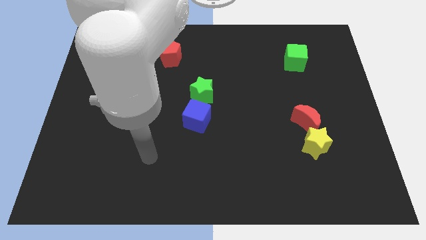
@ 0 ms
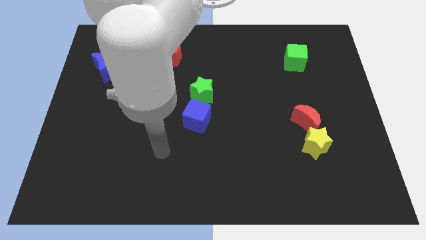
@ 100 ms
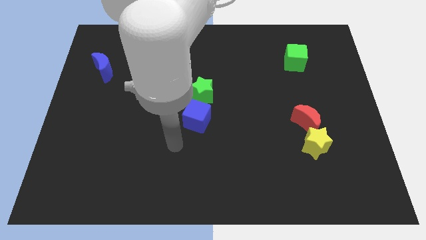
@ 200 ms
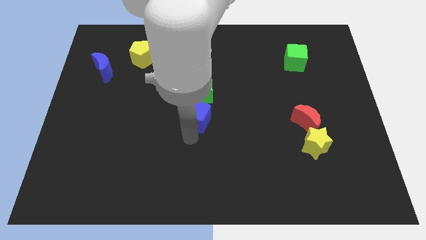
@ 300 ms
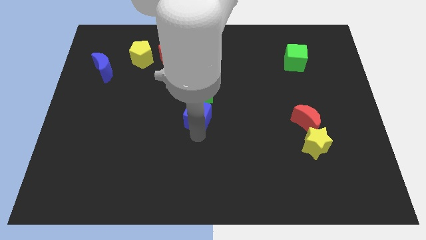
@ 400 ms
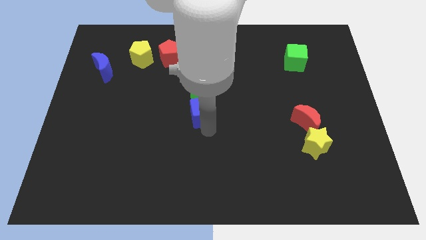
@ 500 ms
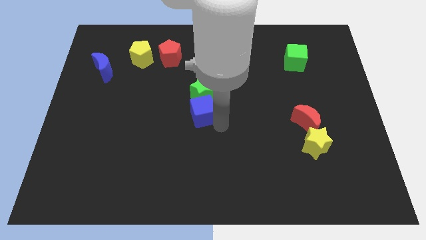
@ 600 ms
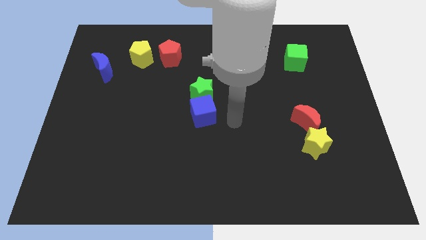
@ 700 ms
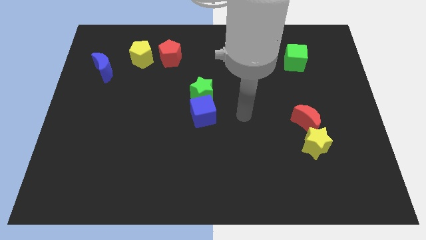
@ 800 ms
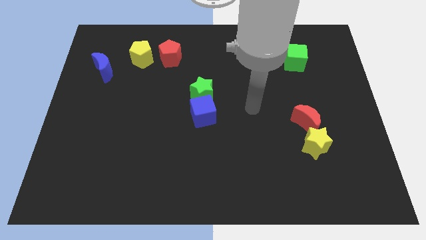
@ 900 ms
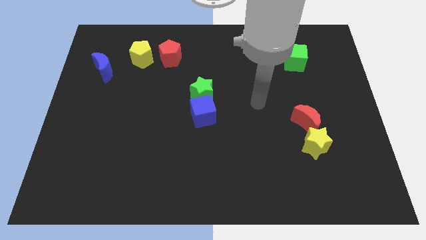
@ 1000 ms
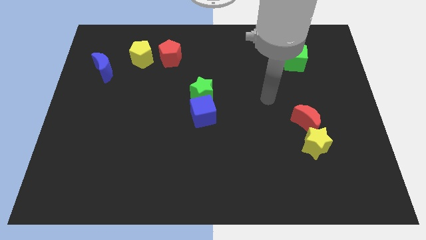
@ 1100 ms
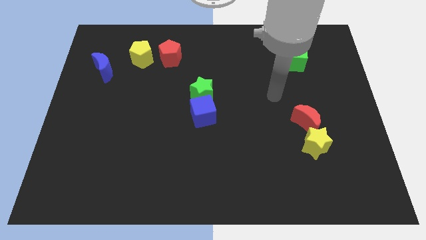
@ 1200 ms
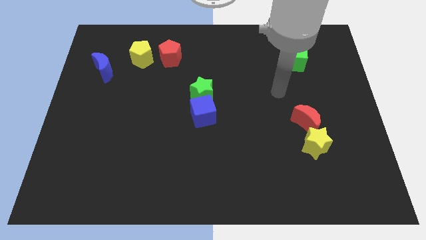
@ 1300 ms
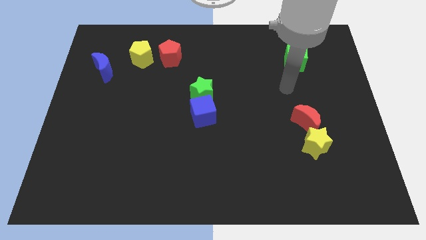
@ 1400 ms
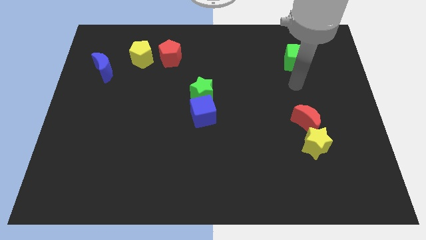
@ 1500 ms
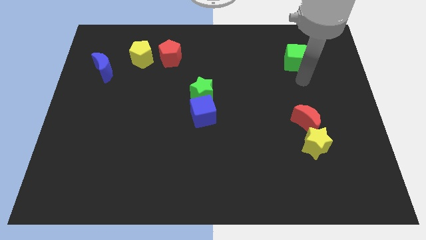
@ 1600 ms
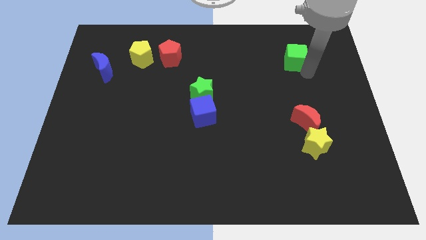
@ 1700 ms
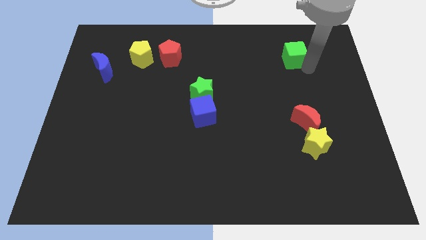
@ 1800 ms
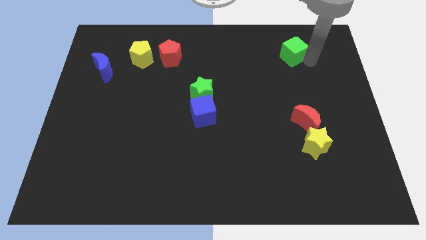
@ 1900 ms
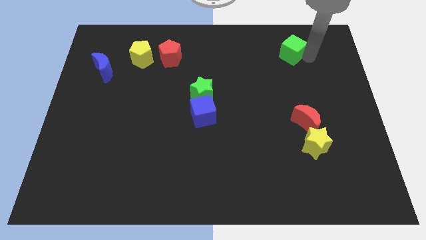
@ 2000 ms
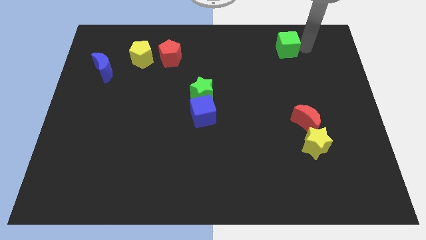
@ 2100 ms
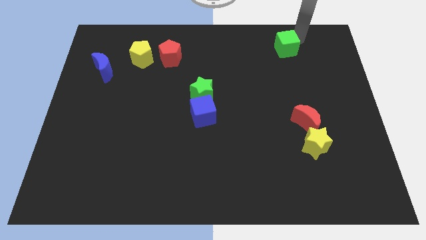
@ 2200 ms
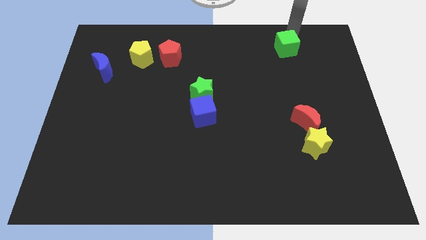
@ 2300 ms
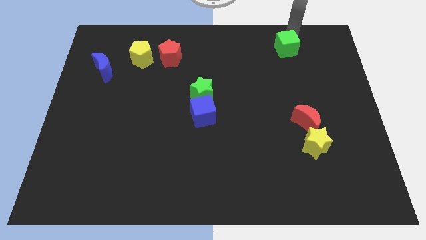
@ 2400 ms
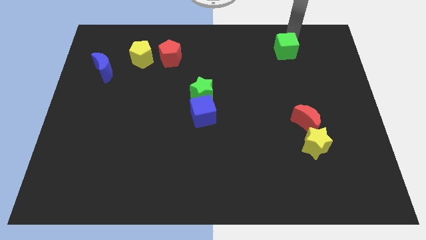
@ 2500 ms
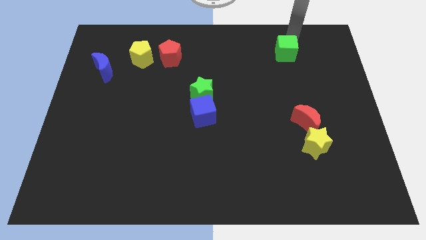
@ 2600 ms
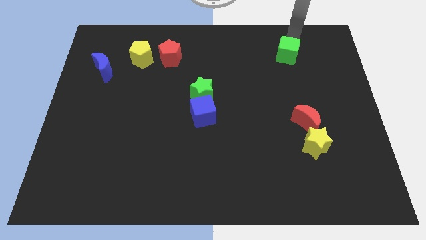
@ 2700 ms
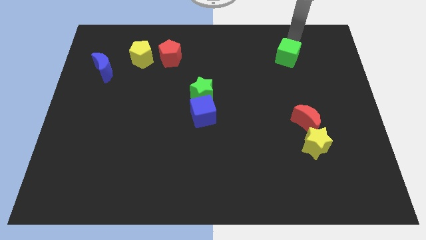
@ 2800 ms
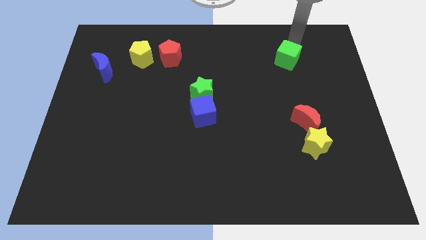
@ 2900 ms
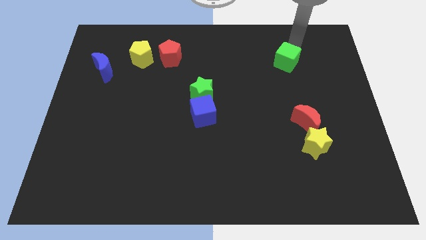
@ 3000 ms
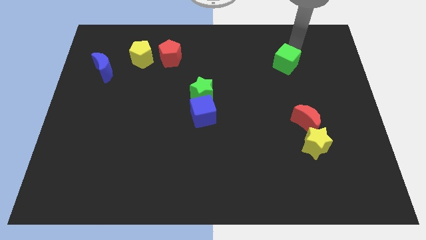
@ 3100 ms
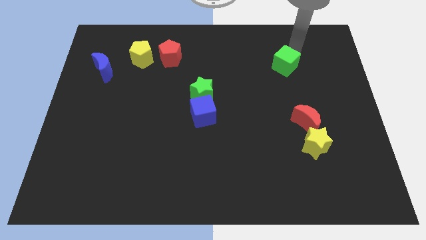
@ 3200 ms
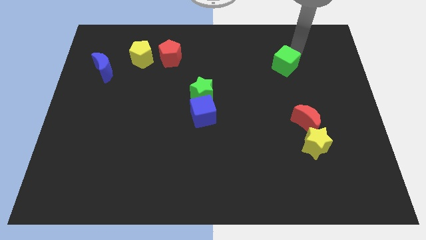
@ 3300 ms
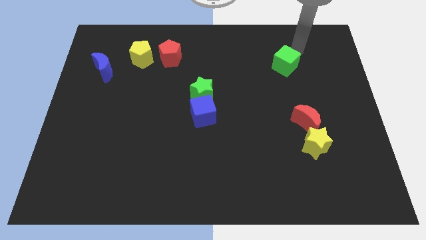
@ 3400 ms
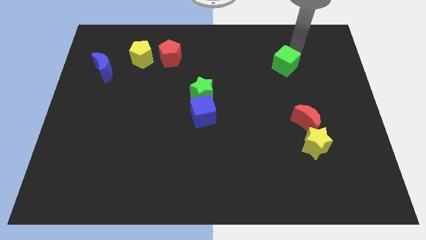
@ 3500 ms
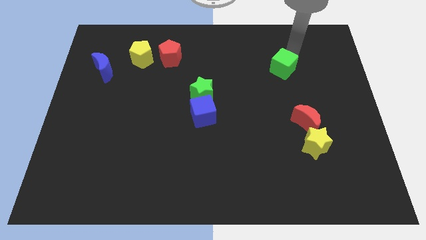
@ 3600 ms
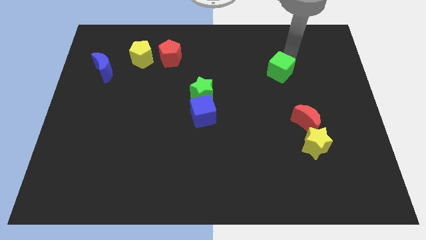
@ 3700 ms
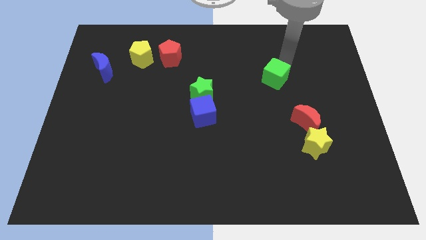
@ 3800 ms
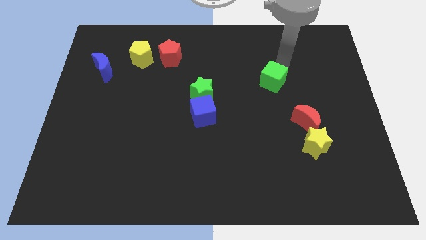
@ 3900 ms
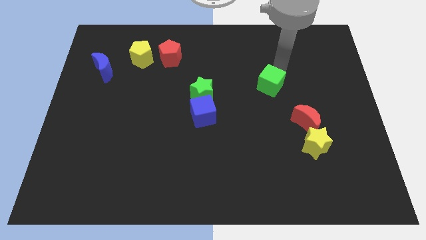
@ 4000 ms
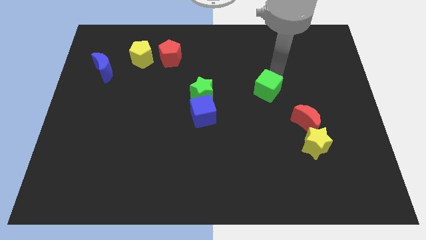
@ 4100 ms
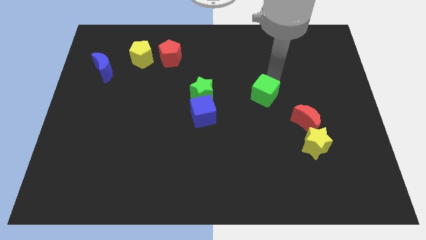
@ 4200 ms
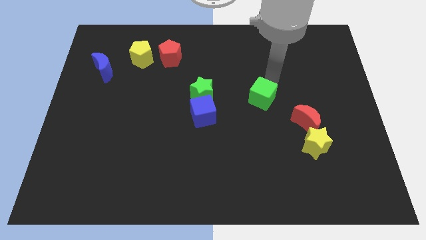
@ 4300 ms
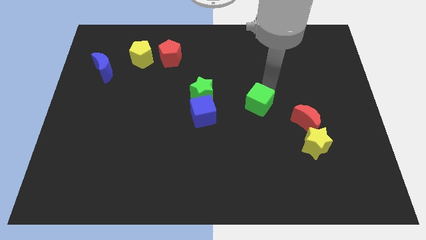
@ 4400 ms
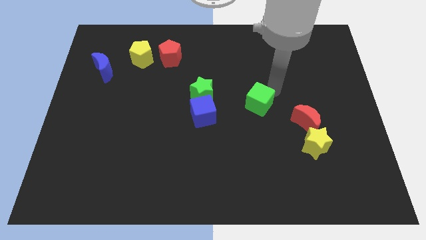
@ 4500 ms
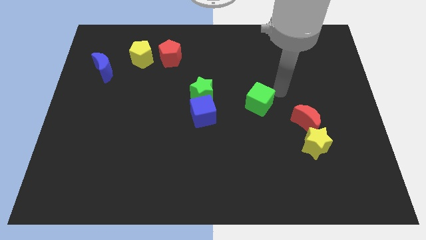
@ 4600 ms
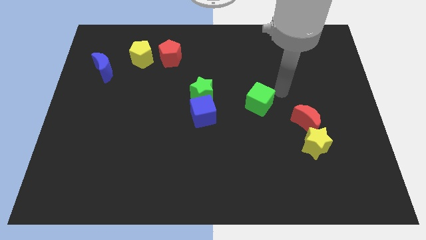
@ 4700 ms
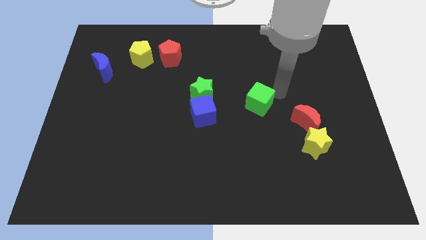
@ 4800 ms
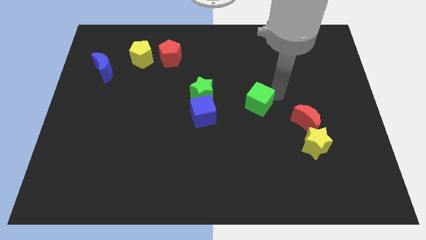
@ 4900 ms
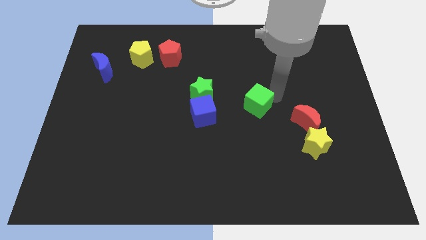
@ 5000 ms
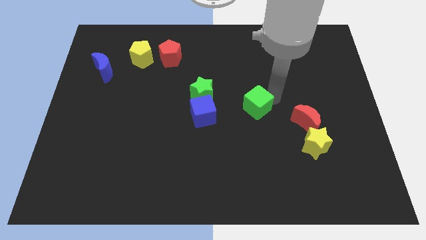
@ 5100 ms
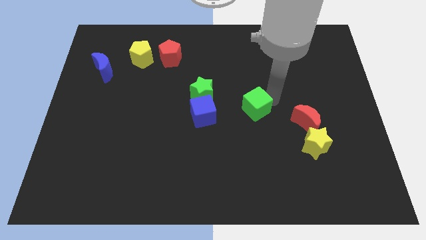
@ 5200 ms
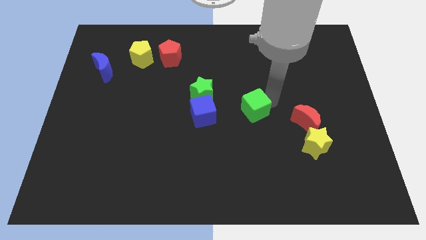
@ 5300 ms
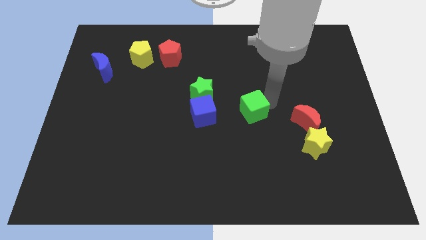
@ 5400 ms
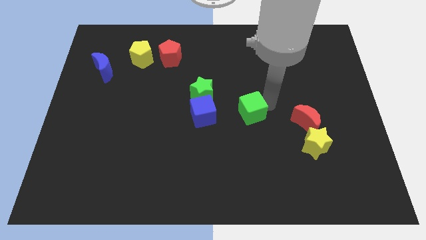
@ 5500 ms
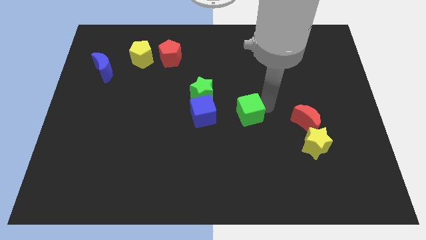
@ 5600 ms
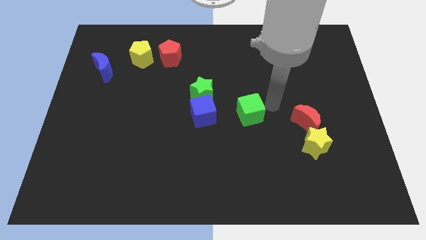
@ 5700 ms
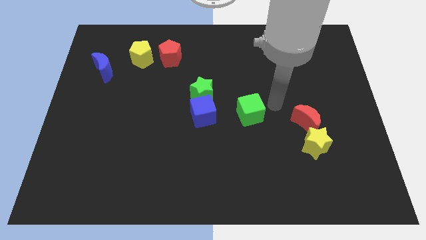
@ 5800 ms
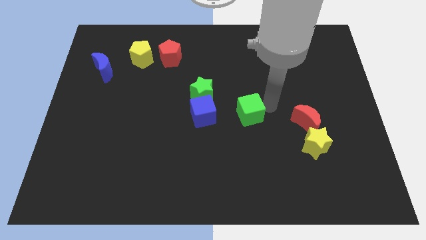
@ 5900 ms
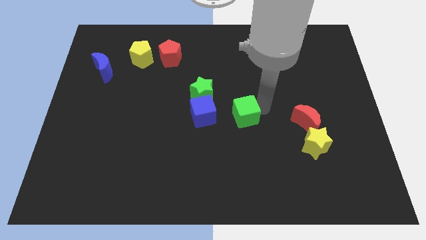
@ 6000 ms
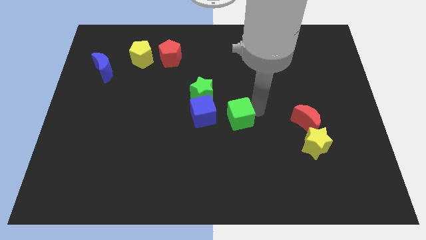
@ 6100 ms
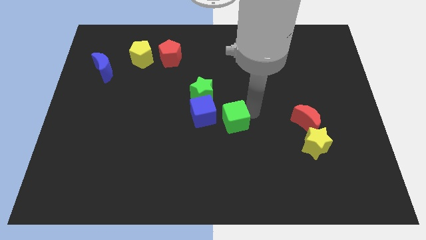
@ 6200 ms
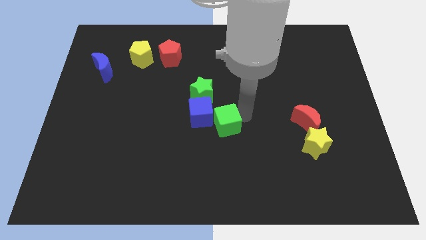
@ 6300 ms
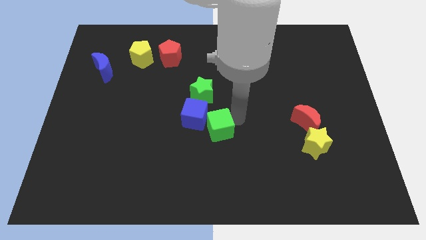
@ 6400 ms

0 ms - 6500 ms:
put the green cube below the green star
